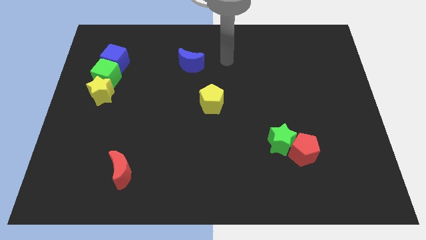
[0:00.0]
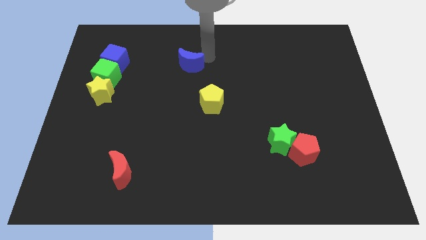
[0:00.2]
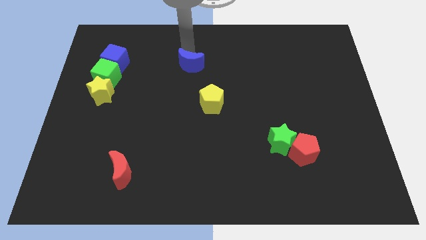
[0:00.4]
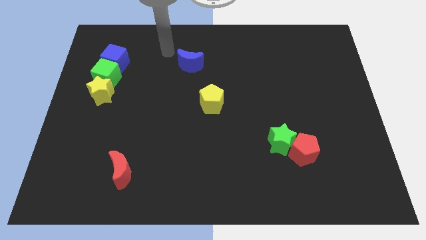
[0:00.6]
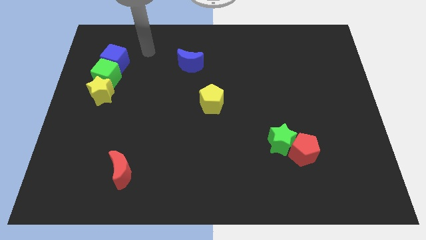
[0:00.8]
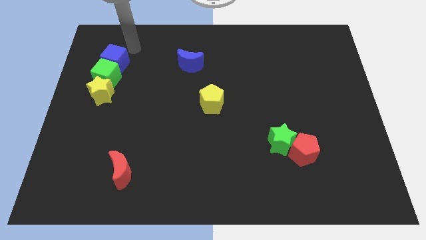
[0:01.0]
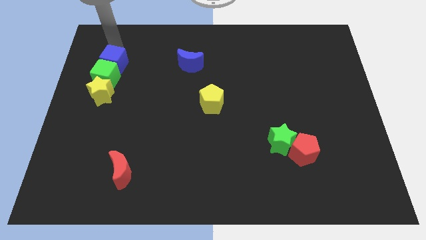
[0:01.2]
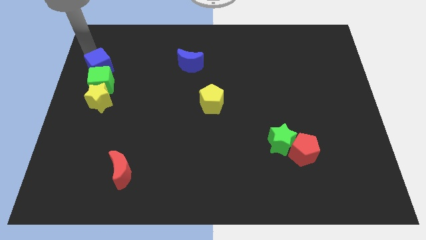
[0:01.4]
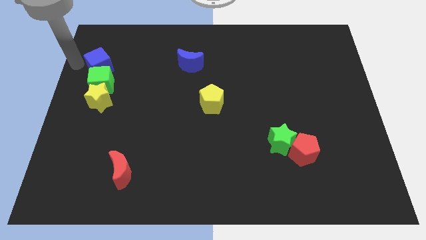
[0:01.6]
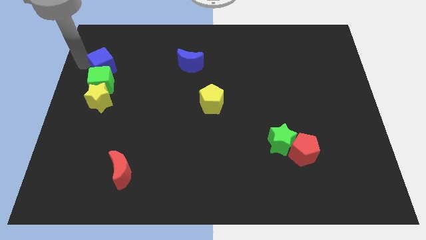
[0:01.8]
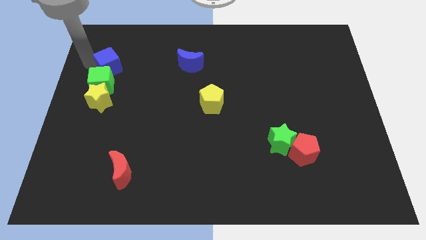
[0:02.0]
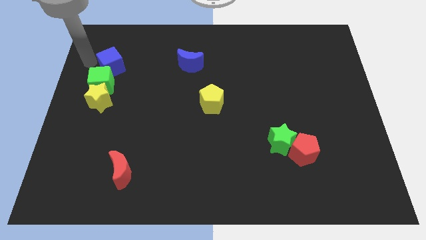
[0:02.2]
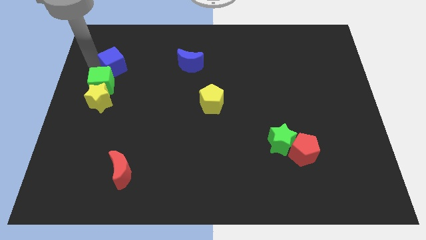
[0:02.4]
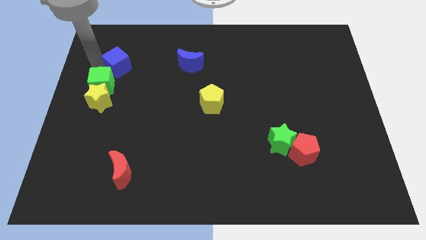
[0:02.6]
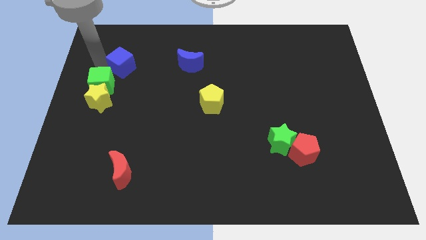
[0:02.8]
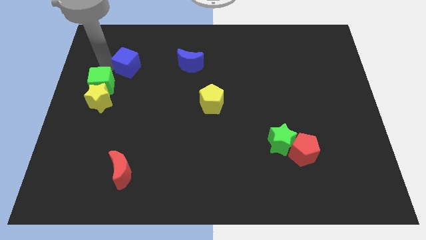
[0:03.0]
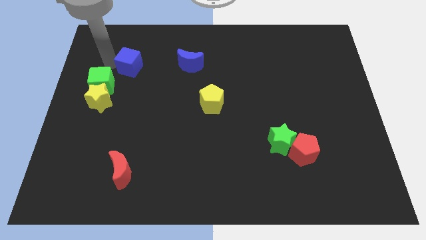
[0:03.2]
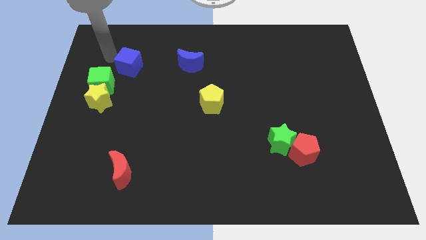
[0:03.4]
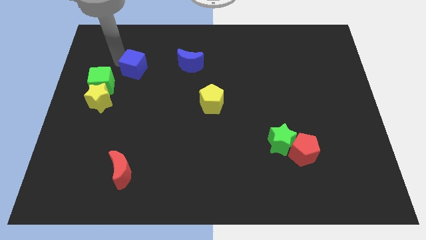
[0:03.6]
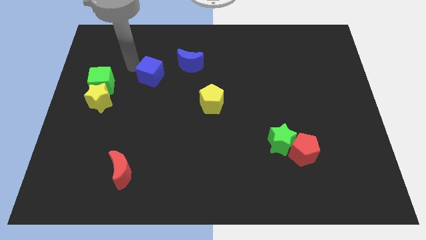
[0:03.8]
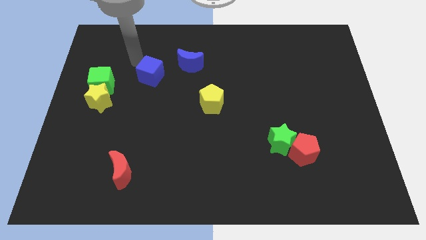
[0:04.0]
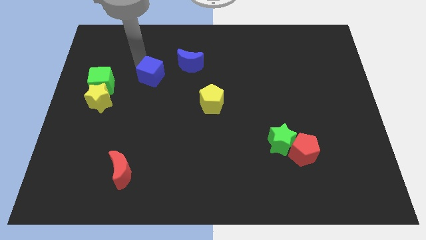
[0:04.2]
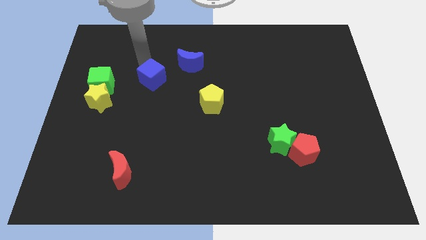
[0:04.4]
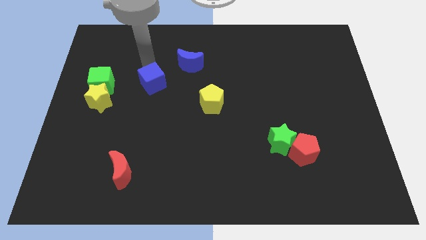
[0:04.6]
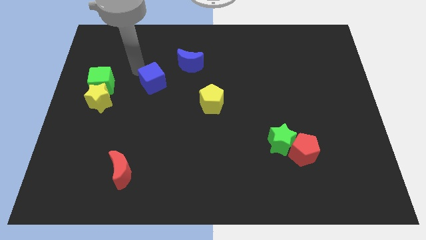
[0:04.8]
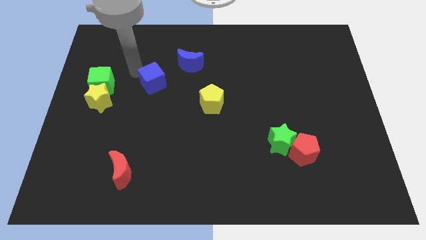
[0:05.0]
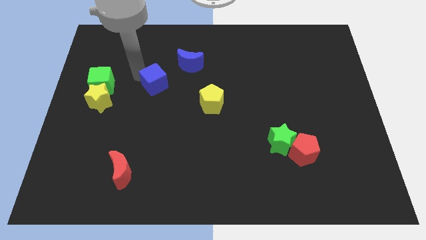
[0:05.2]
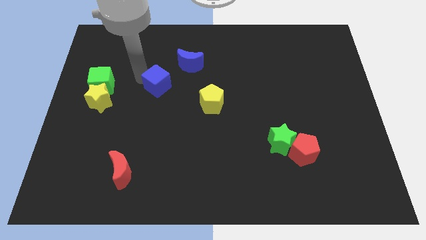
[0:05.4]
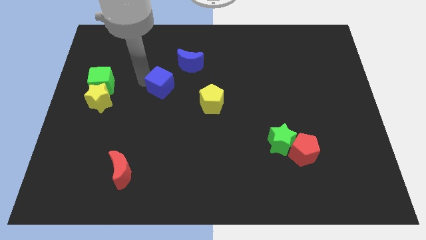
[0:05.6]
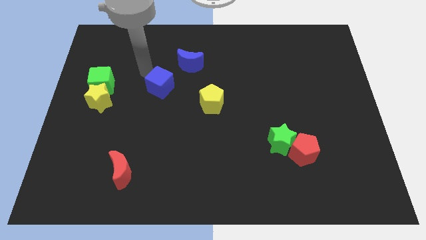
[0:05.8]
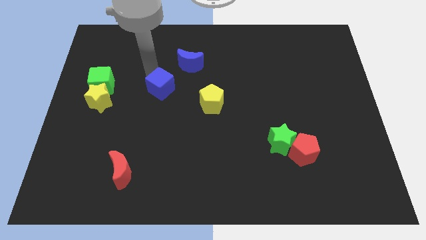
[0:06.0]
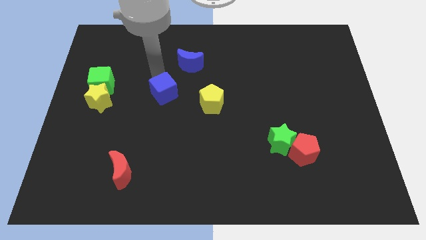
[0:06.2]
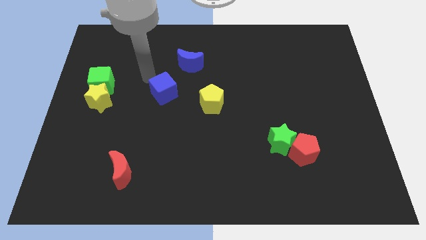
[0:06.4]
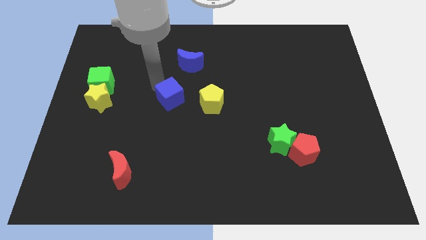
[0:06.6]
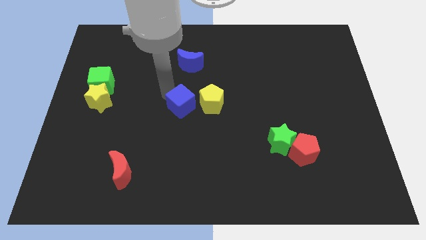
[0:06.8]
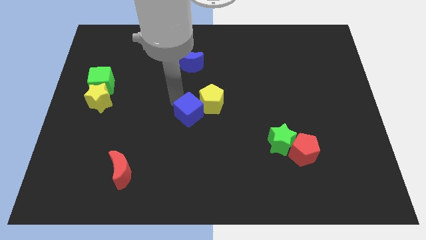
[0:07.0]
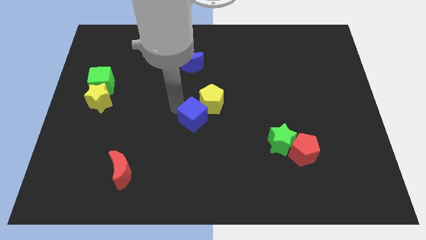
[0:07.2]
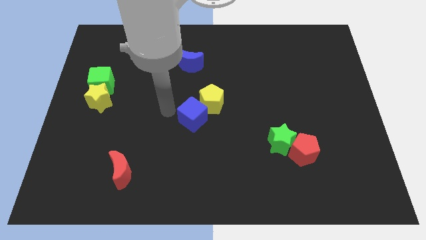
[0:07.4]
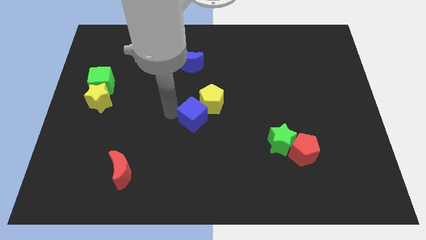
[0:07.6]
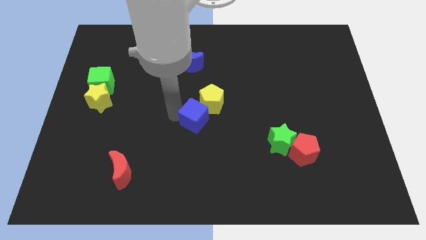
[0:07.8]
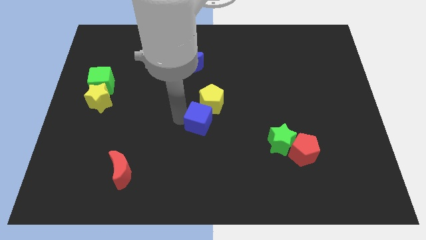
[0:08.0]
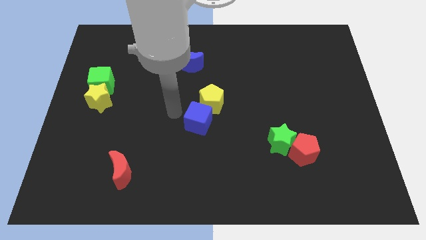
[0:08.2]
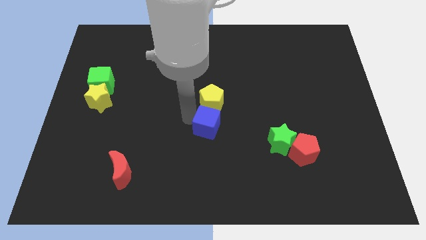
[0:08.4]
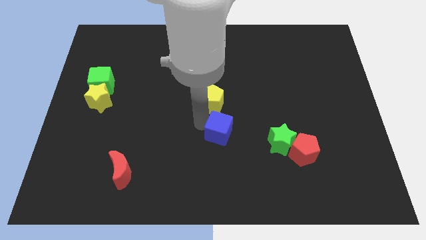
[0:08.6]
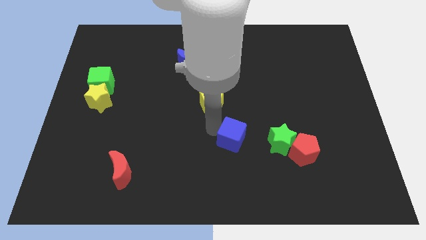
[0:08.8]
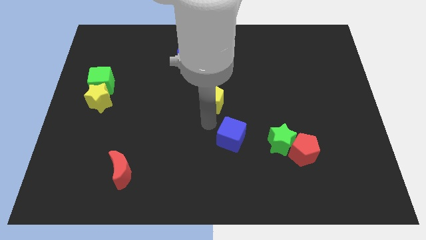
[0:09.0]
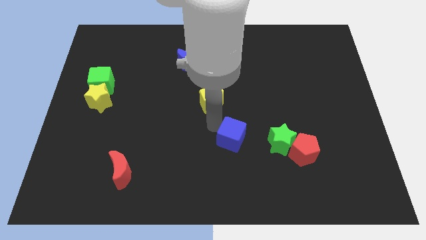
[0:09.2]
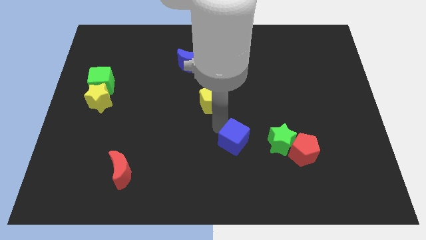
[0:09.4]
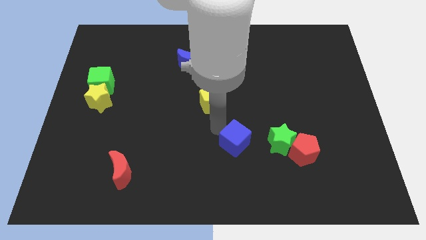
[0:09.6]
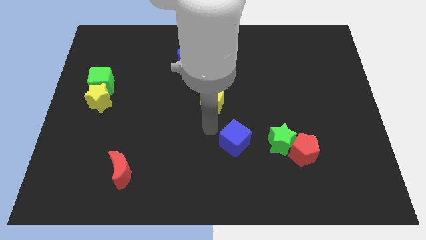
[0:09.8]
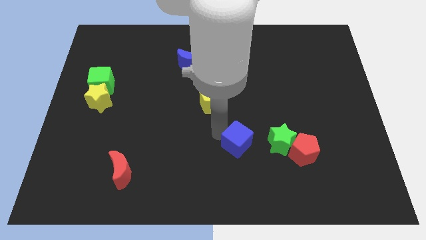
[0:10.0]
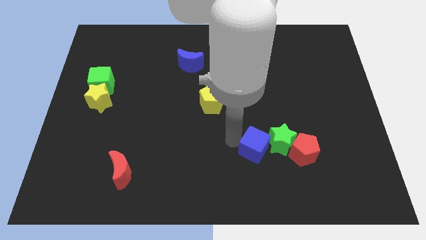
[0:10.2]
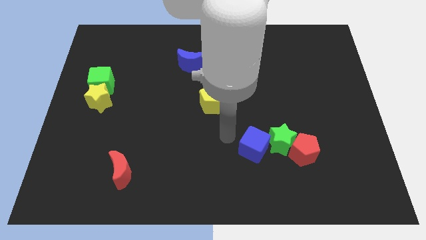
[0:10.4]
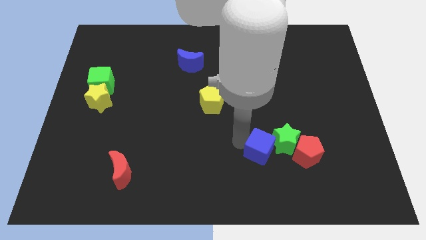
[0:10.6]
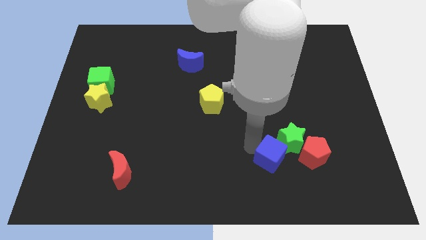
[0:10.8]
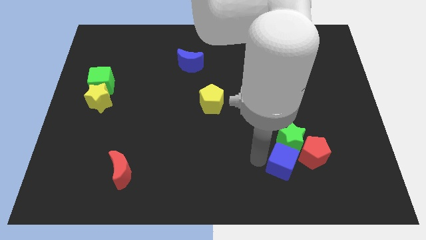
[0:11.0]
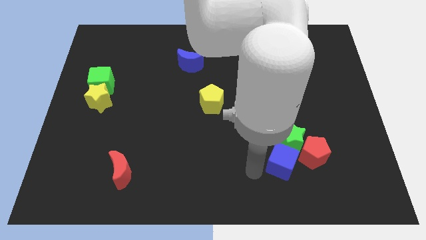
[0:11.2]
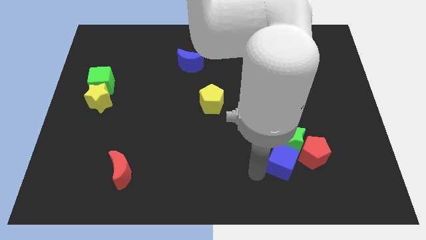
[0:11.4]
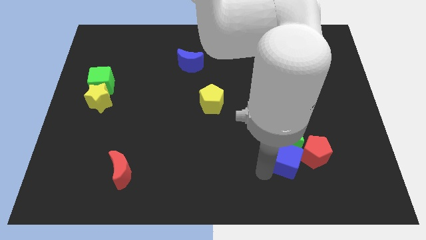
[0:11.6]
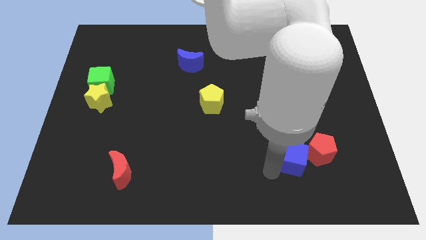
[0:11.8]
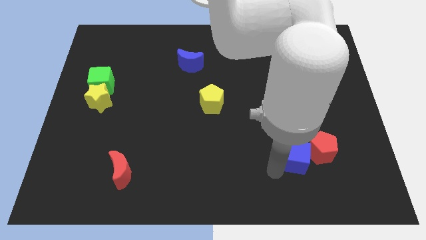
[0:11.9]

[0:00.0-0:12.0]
push the blue cube next to the red pentagon

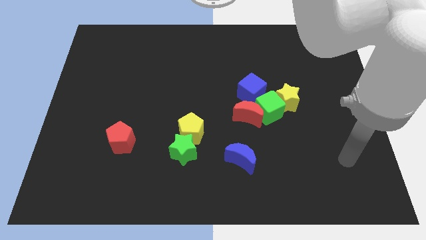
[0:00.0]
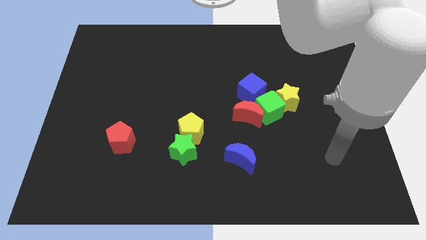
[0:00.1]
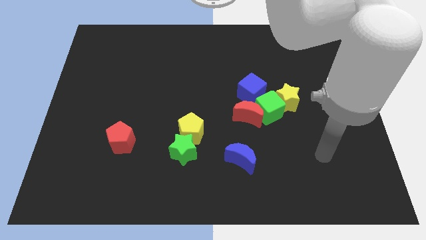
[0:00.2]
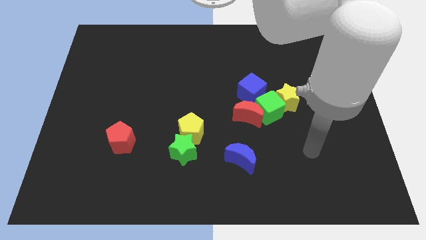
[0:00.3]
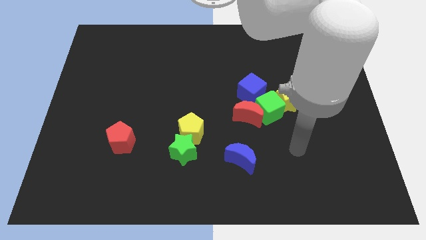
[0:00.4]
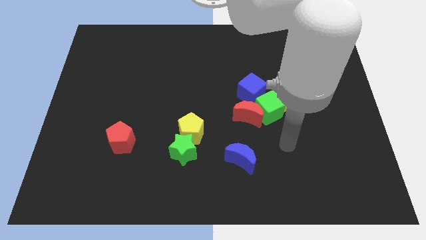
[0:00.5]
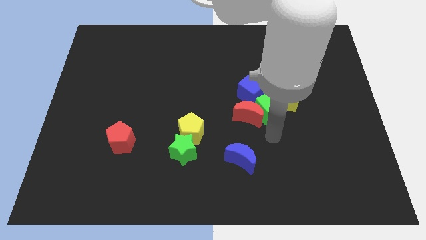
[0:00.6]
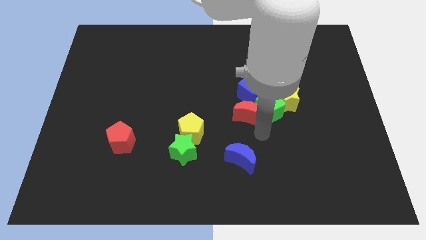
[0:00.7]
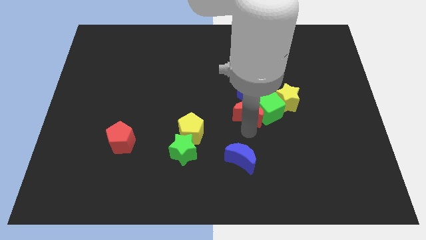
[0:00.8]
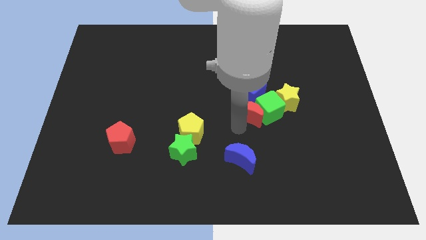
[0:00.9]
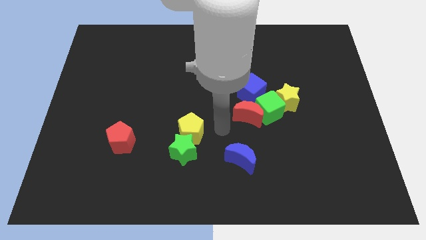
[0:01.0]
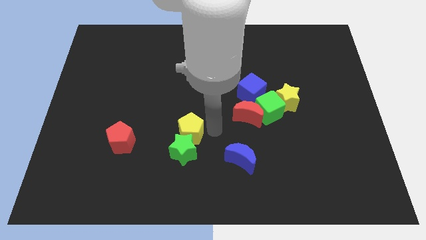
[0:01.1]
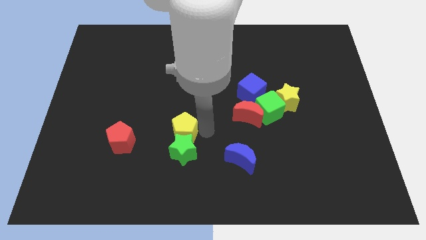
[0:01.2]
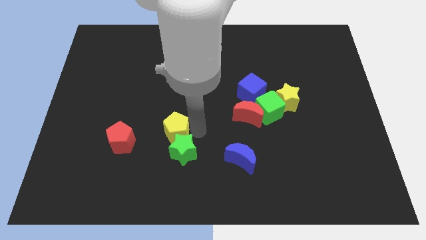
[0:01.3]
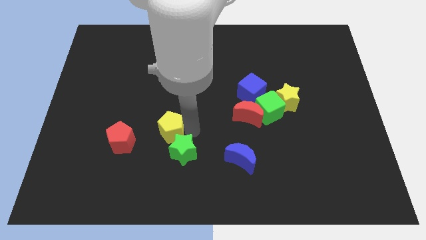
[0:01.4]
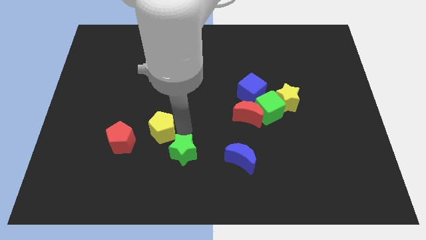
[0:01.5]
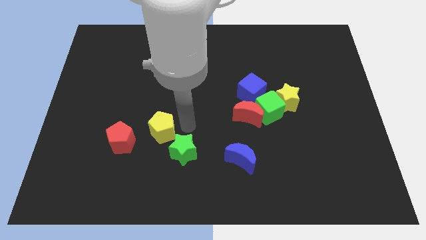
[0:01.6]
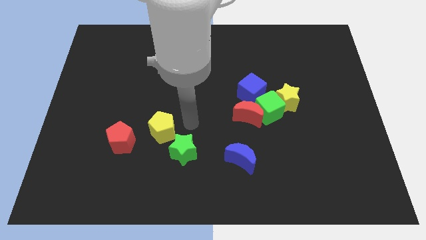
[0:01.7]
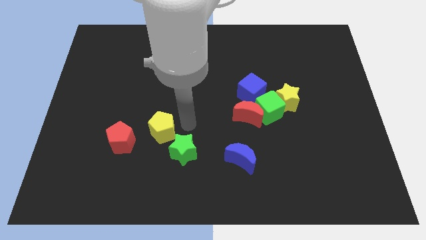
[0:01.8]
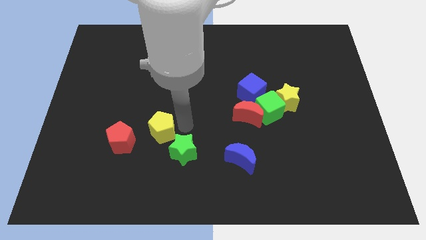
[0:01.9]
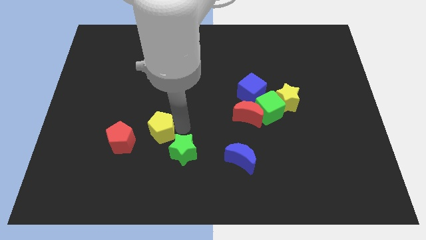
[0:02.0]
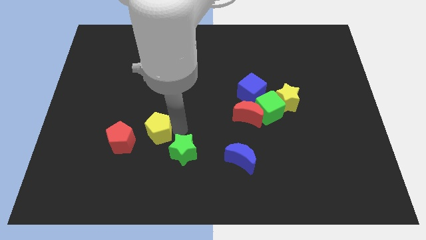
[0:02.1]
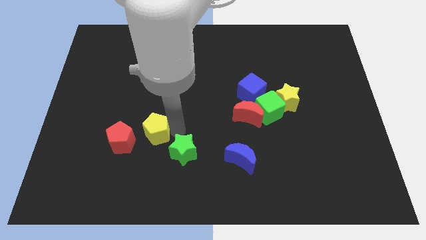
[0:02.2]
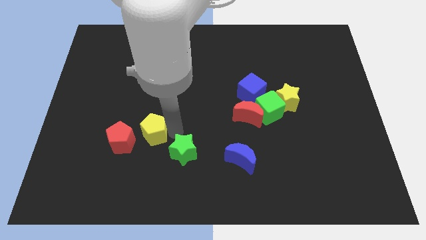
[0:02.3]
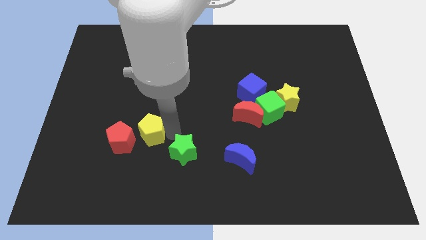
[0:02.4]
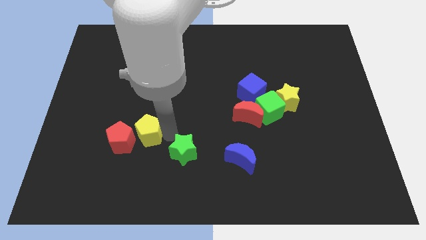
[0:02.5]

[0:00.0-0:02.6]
put the yellow pentagon next to the red pentagon
